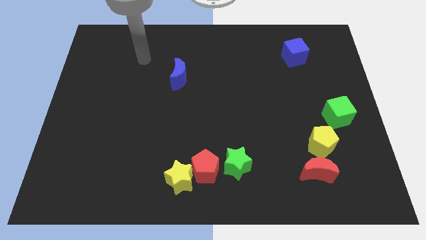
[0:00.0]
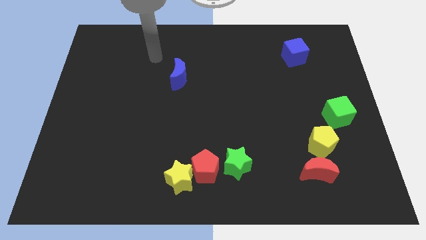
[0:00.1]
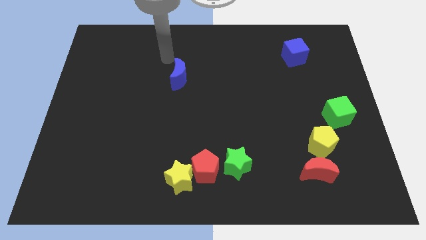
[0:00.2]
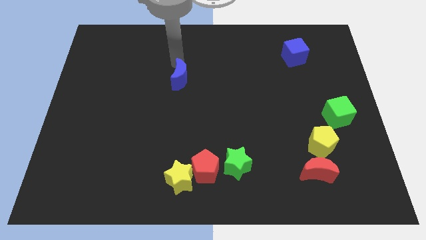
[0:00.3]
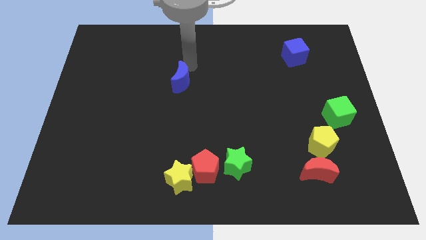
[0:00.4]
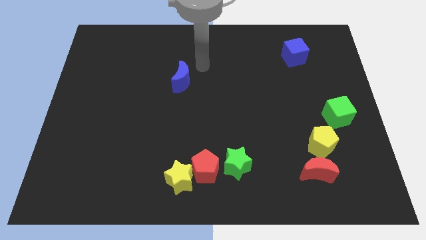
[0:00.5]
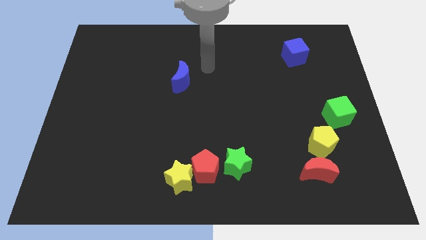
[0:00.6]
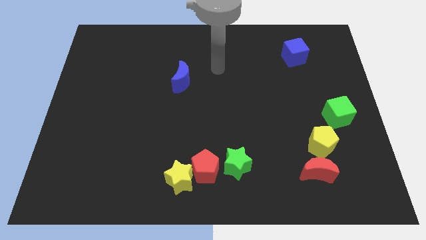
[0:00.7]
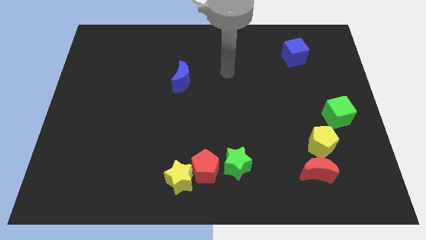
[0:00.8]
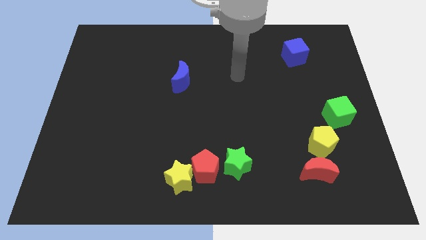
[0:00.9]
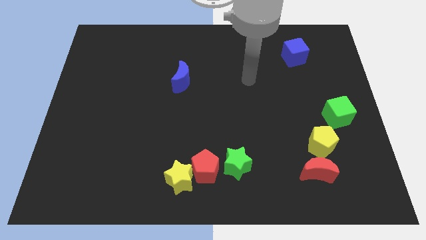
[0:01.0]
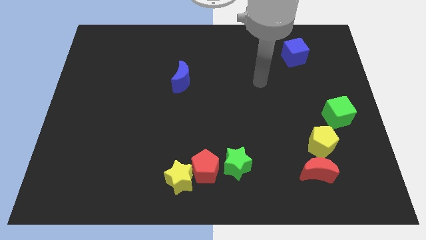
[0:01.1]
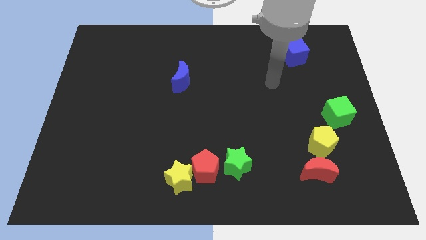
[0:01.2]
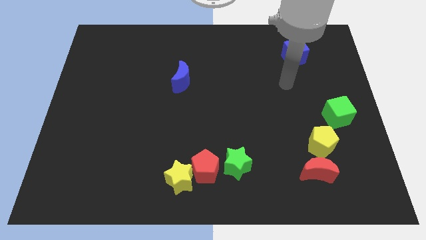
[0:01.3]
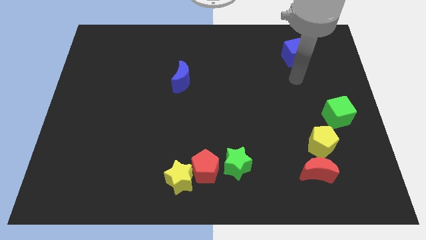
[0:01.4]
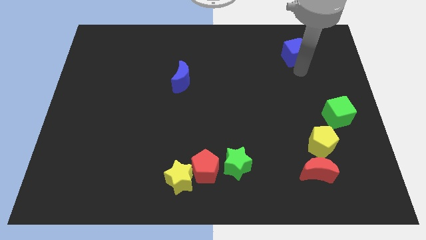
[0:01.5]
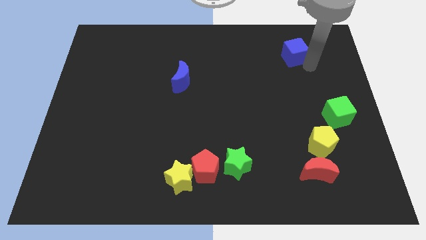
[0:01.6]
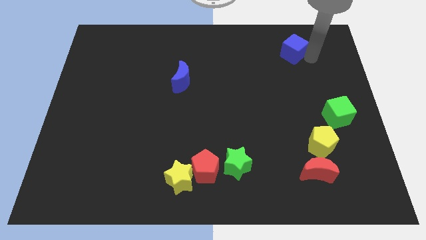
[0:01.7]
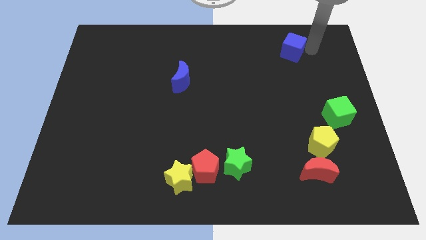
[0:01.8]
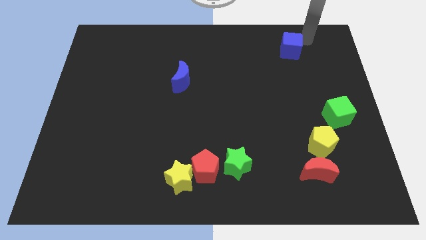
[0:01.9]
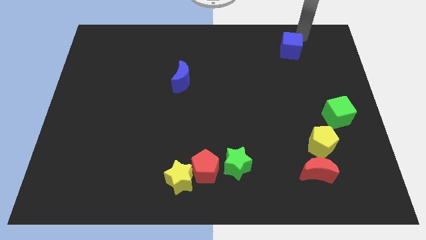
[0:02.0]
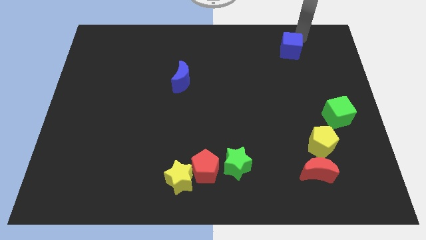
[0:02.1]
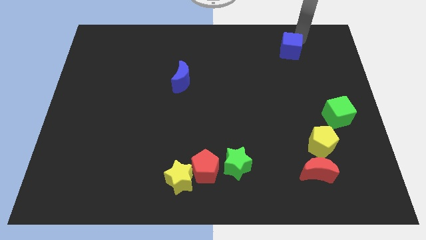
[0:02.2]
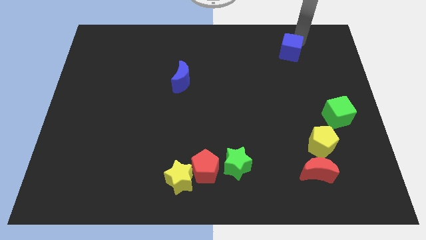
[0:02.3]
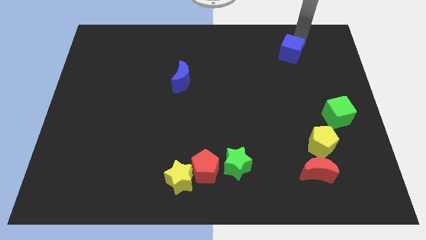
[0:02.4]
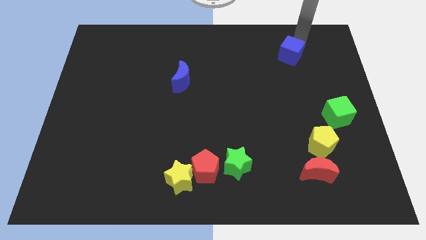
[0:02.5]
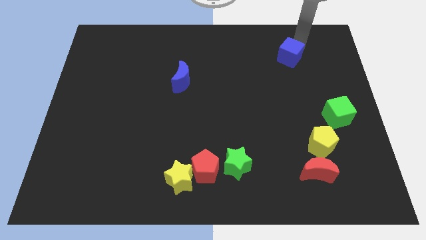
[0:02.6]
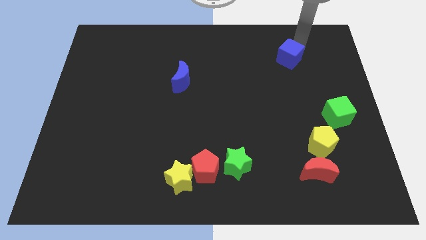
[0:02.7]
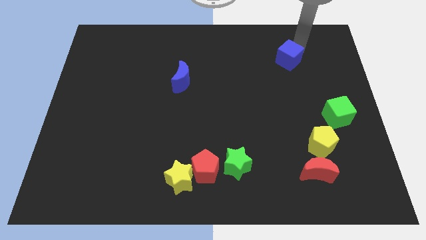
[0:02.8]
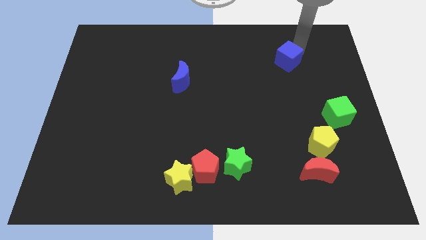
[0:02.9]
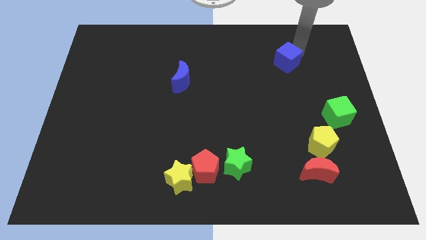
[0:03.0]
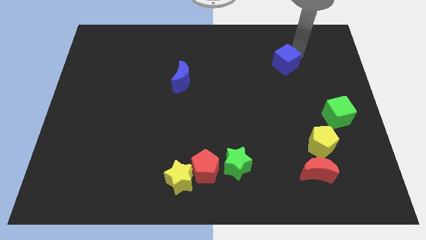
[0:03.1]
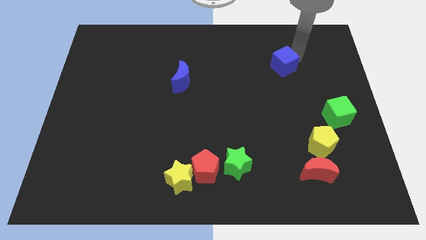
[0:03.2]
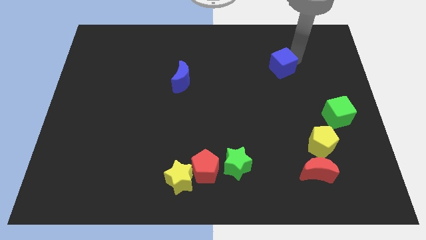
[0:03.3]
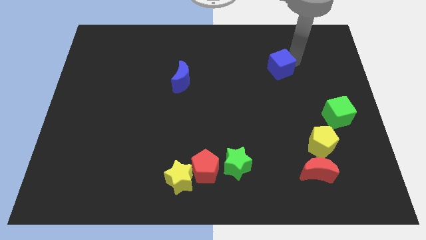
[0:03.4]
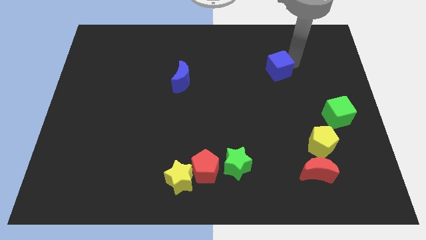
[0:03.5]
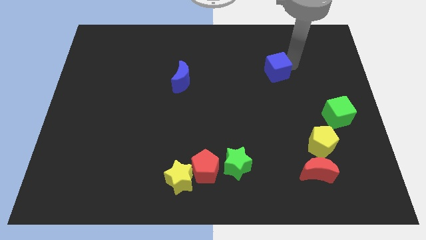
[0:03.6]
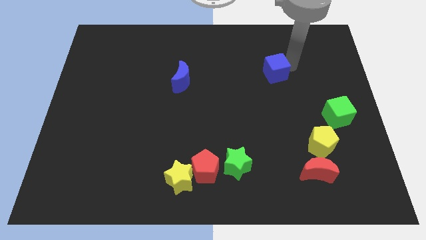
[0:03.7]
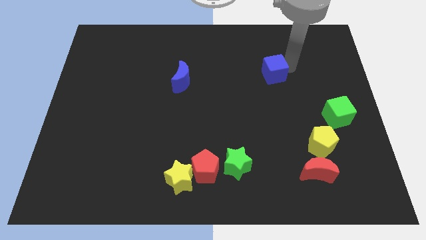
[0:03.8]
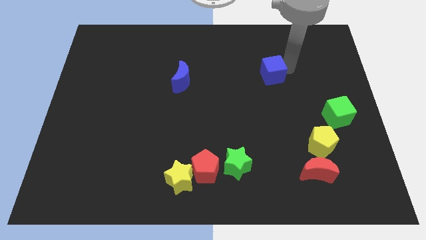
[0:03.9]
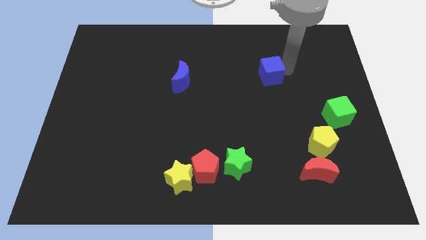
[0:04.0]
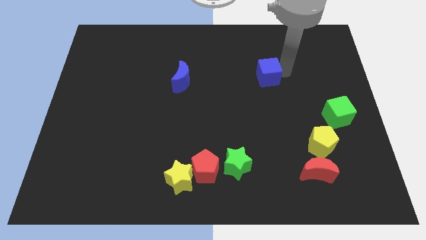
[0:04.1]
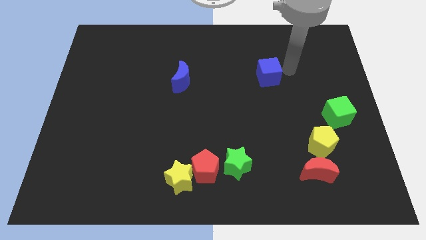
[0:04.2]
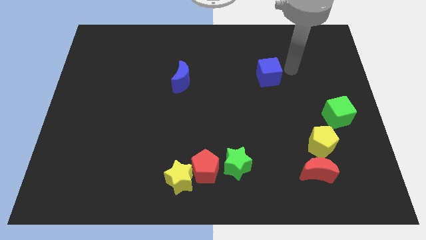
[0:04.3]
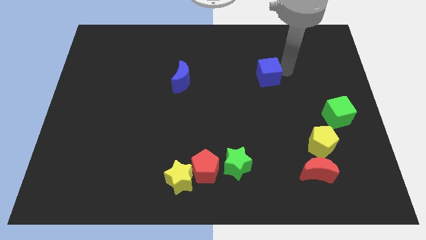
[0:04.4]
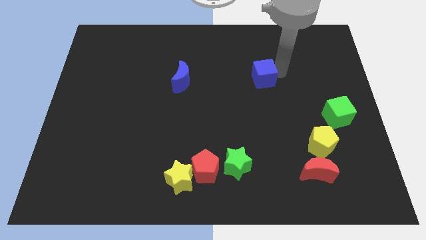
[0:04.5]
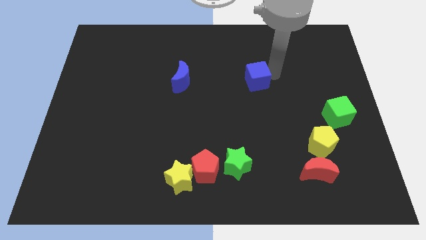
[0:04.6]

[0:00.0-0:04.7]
put the blue cube to the middle of the board

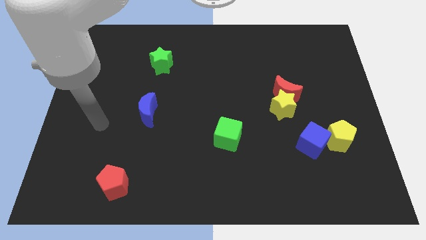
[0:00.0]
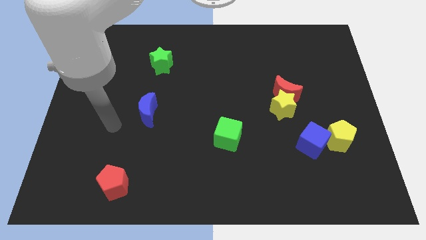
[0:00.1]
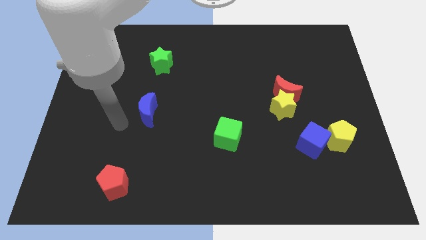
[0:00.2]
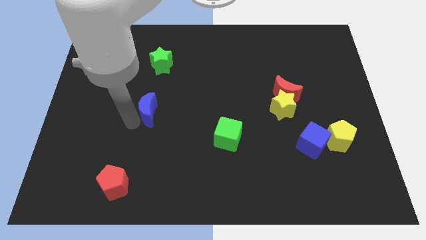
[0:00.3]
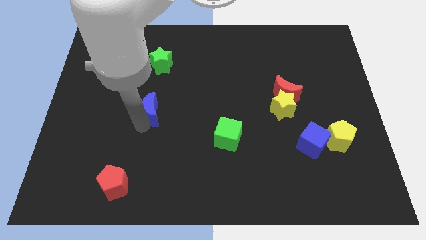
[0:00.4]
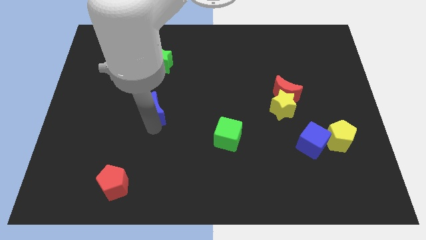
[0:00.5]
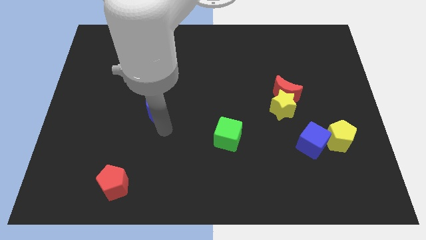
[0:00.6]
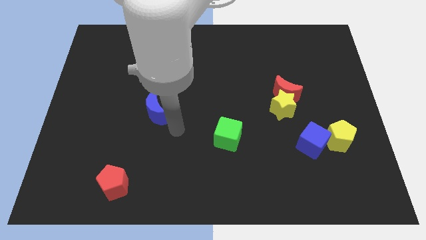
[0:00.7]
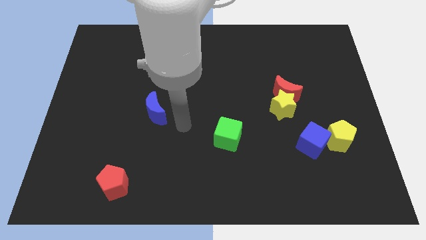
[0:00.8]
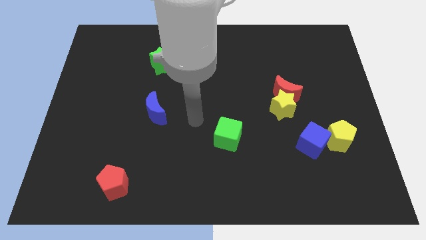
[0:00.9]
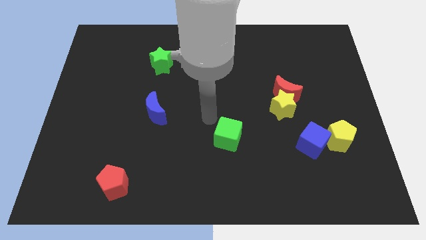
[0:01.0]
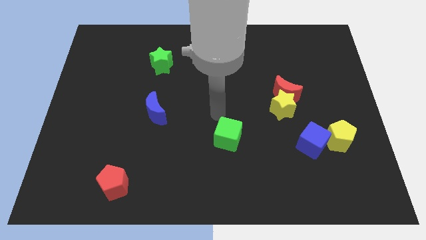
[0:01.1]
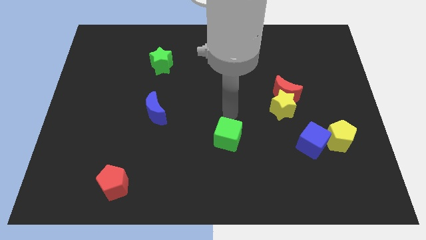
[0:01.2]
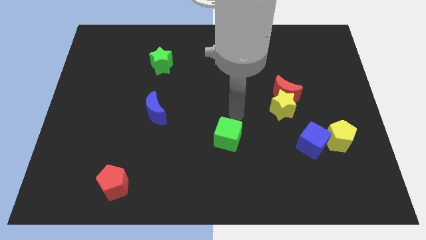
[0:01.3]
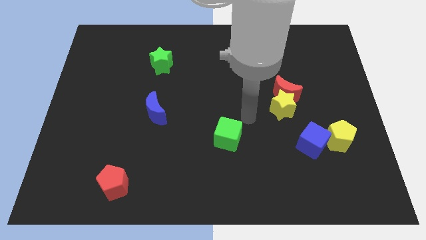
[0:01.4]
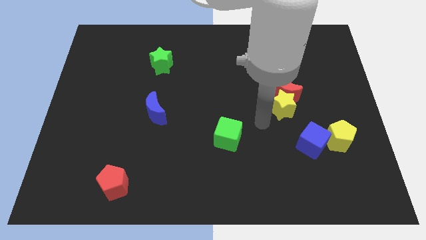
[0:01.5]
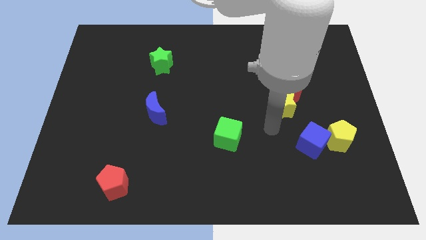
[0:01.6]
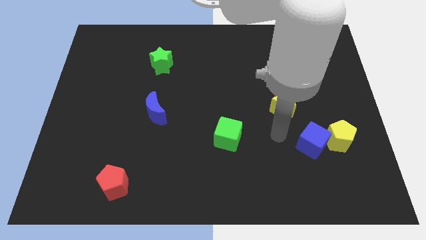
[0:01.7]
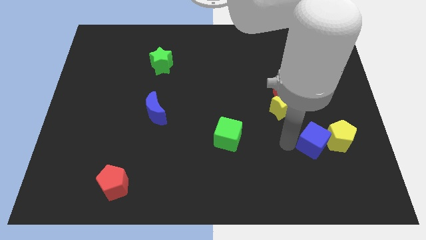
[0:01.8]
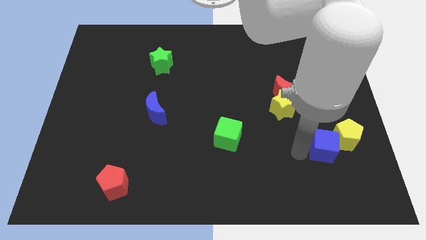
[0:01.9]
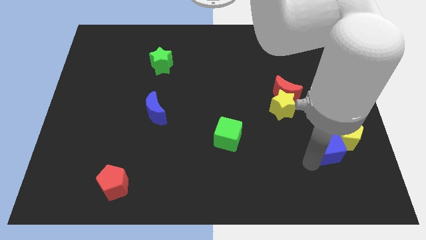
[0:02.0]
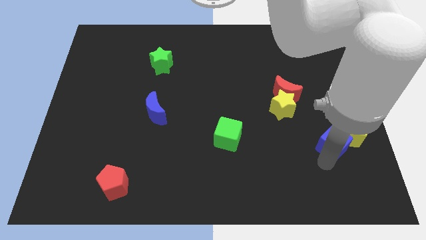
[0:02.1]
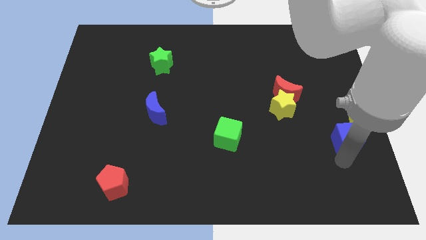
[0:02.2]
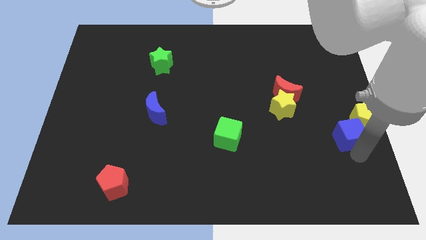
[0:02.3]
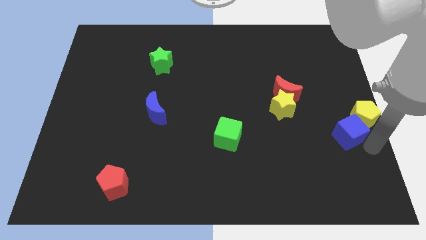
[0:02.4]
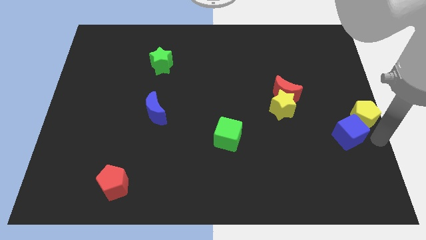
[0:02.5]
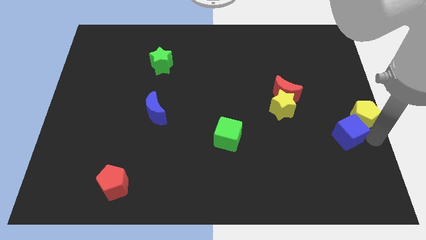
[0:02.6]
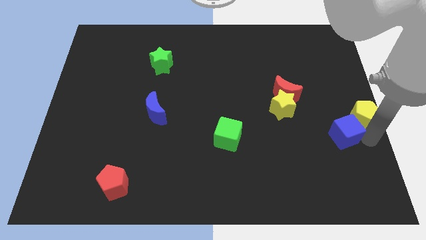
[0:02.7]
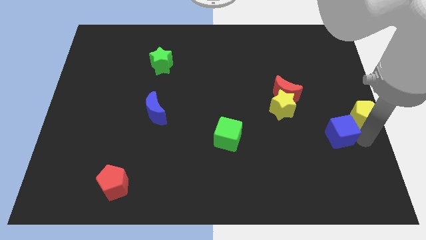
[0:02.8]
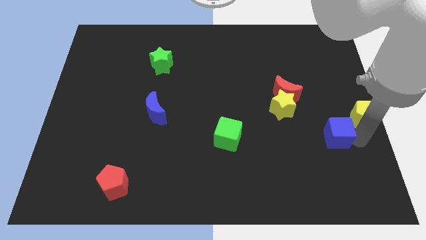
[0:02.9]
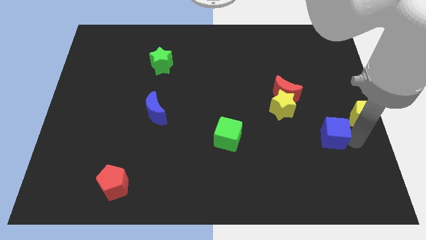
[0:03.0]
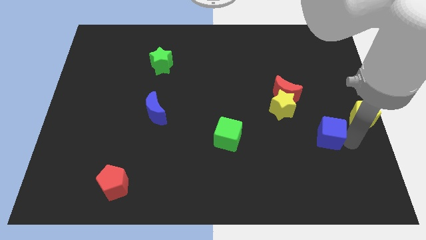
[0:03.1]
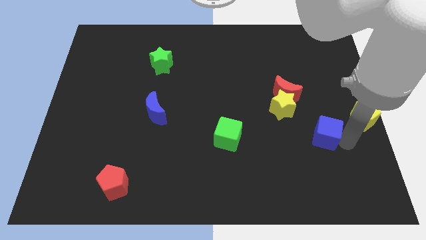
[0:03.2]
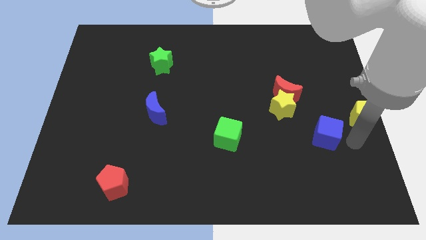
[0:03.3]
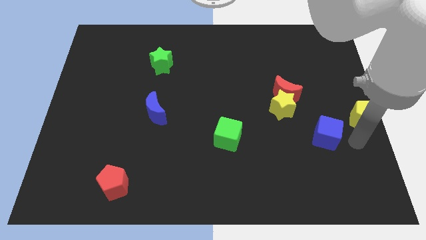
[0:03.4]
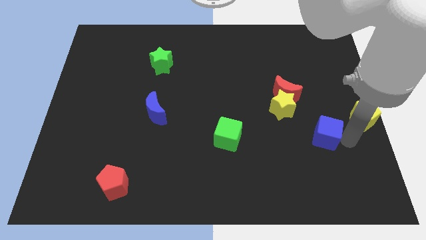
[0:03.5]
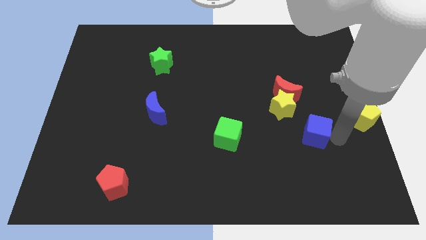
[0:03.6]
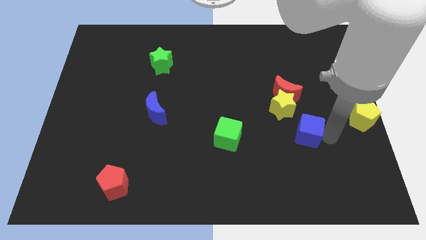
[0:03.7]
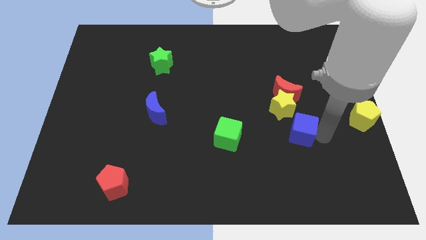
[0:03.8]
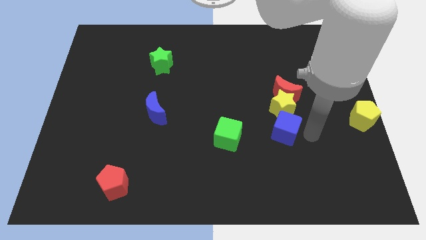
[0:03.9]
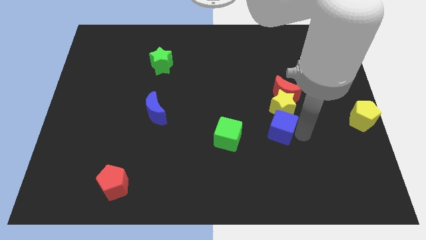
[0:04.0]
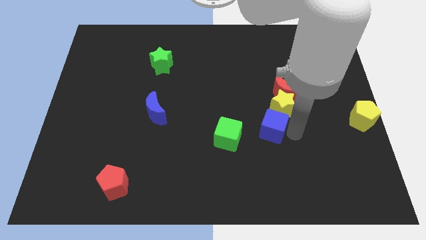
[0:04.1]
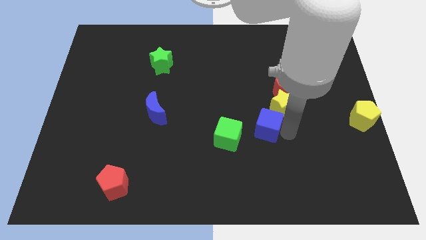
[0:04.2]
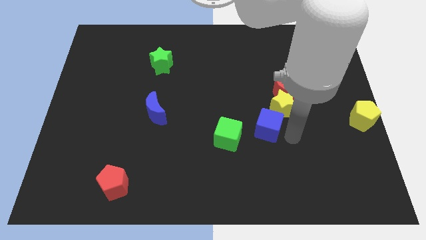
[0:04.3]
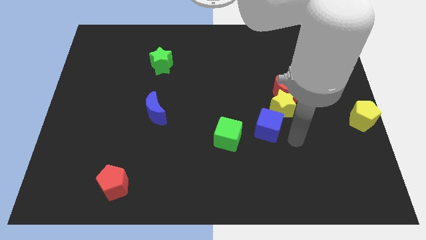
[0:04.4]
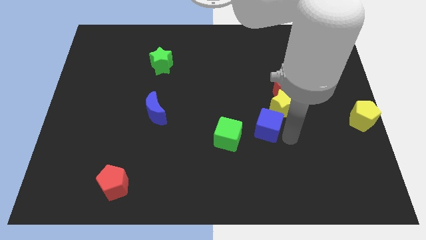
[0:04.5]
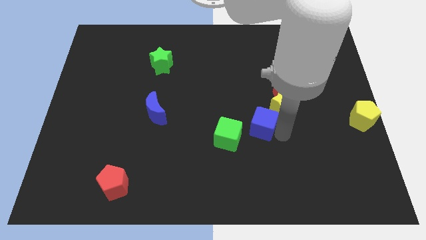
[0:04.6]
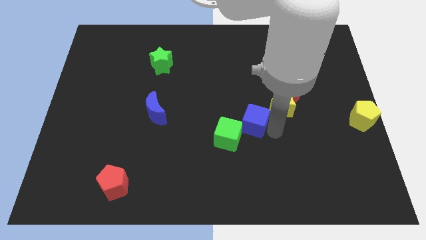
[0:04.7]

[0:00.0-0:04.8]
push the blue cube to the center
